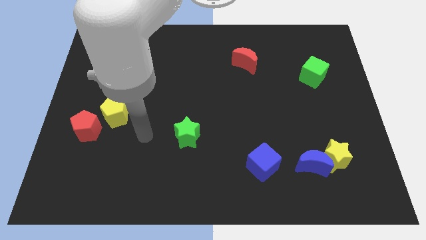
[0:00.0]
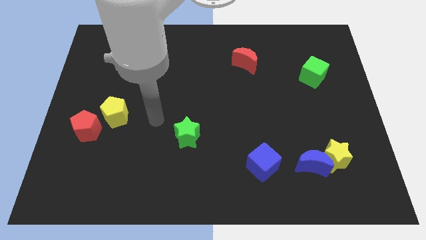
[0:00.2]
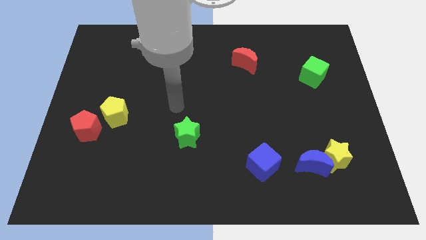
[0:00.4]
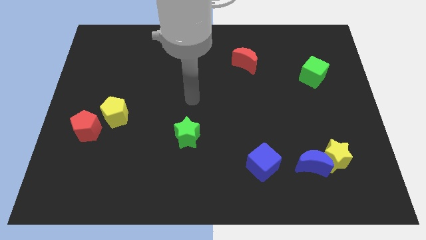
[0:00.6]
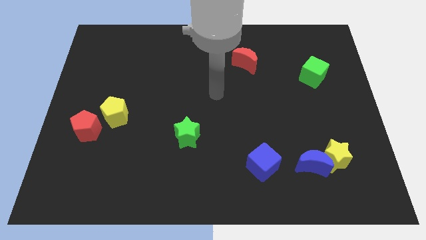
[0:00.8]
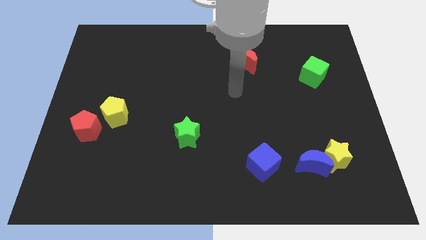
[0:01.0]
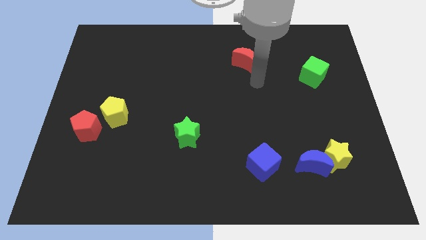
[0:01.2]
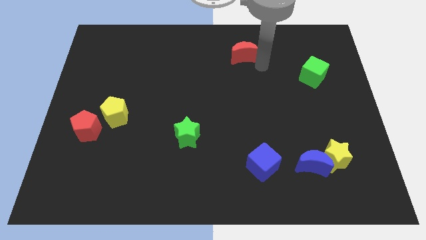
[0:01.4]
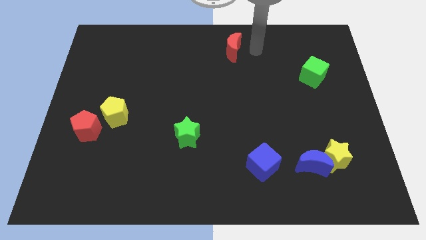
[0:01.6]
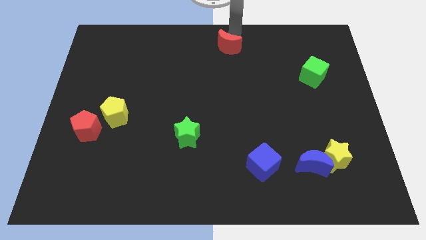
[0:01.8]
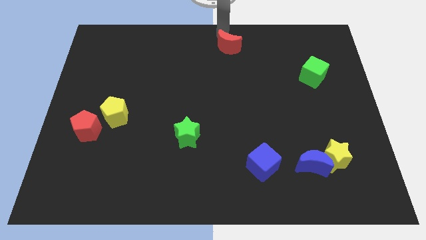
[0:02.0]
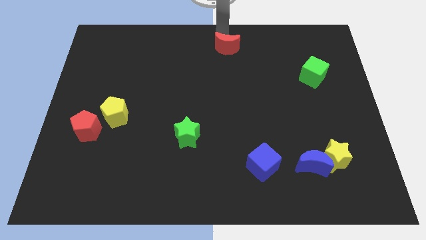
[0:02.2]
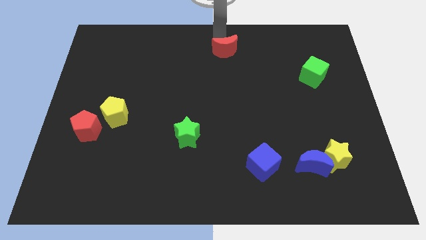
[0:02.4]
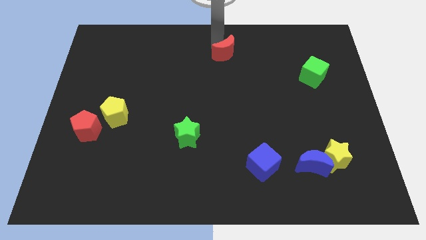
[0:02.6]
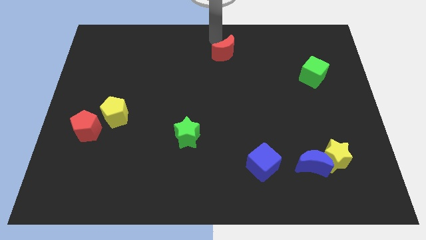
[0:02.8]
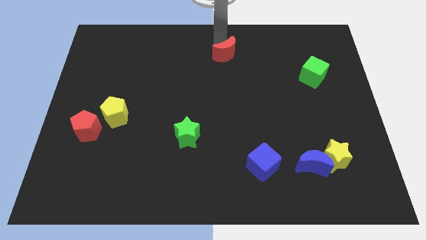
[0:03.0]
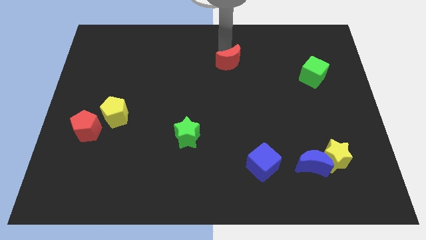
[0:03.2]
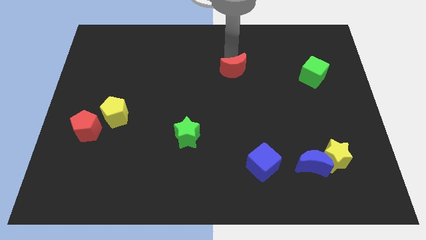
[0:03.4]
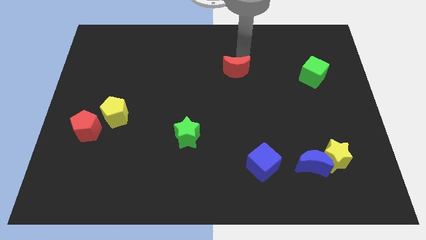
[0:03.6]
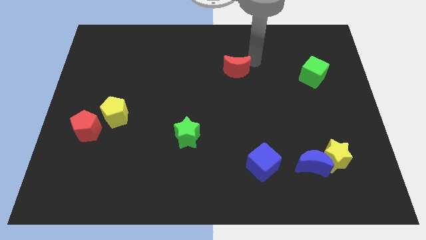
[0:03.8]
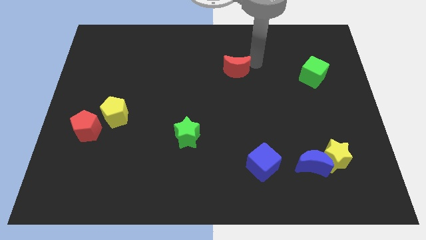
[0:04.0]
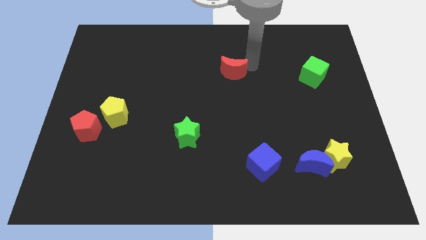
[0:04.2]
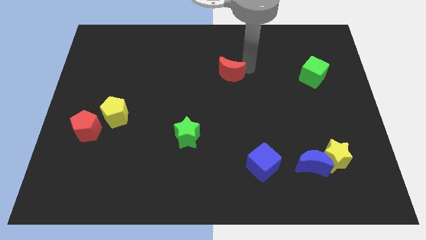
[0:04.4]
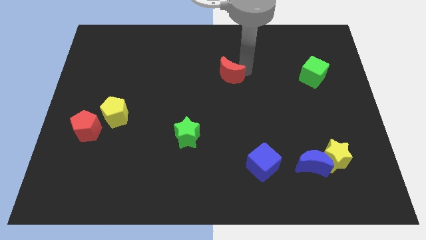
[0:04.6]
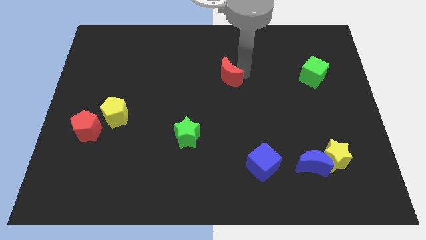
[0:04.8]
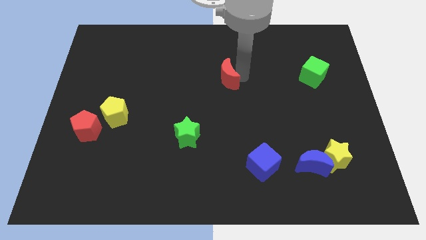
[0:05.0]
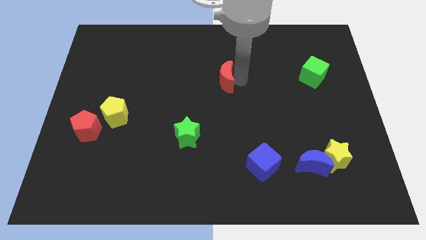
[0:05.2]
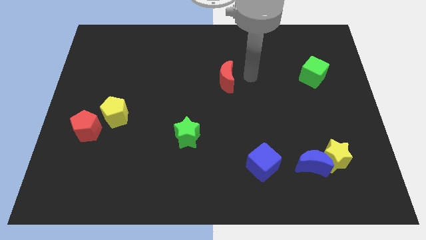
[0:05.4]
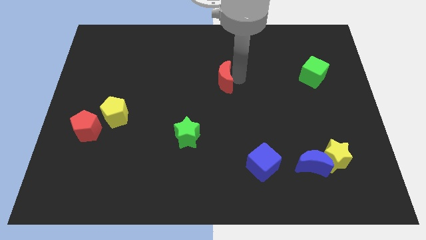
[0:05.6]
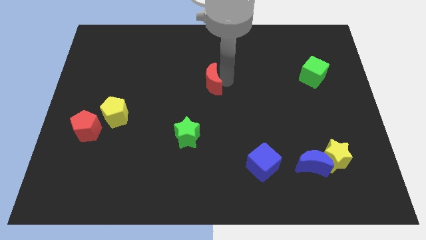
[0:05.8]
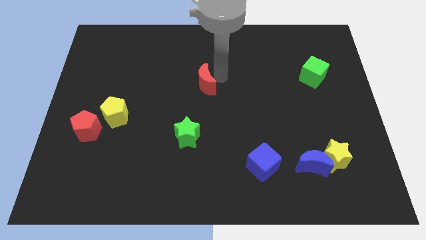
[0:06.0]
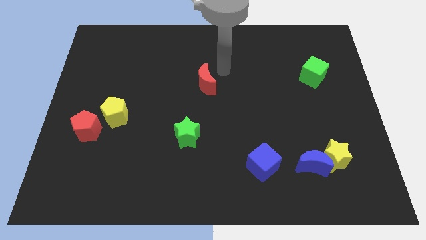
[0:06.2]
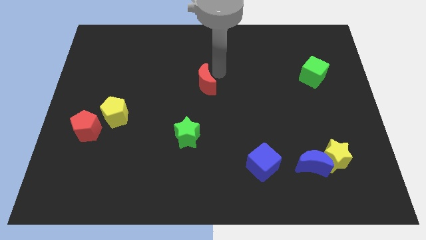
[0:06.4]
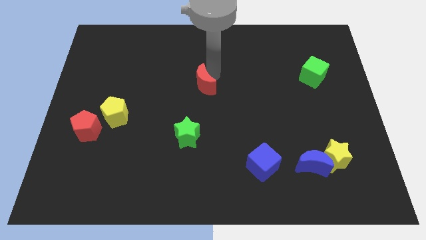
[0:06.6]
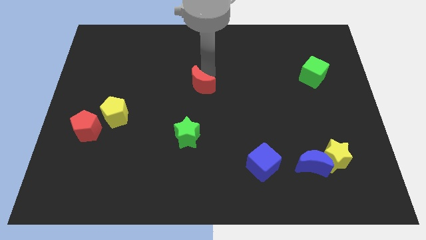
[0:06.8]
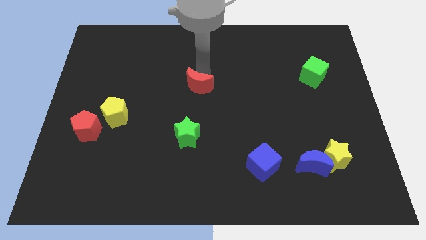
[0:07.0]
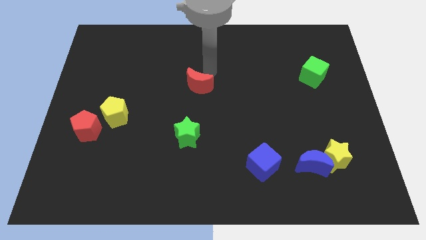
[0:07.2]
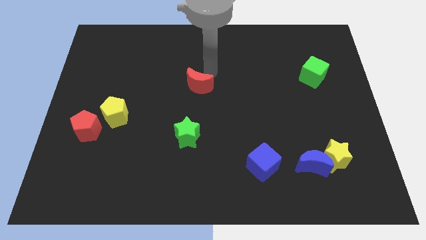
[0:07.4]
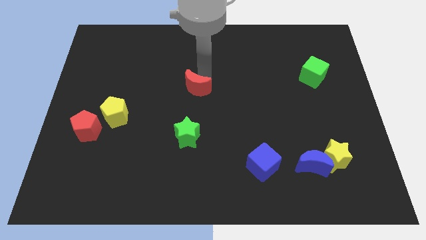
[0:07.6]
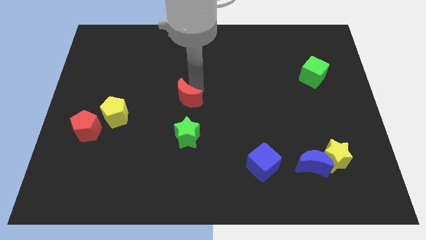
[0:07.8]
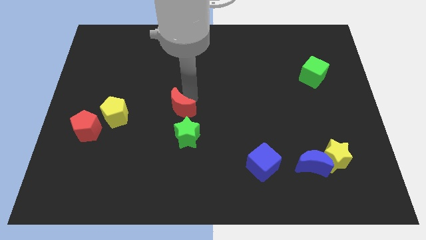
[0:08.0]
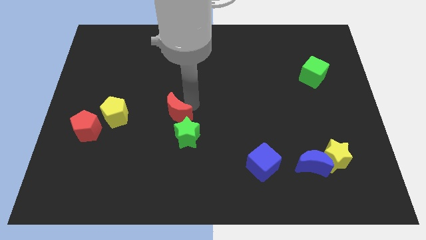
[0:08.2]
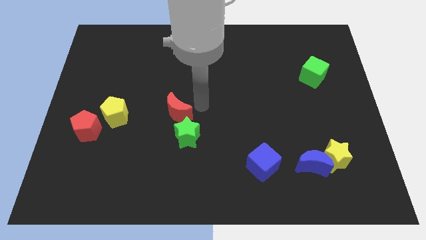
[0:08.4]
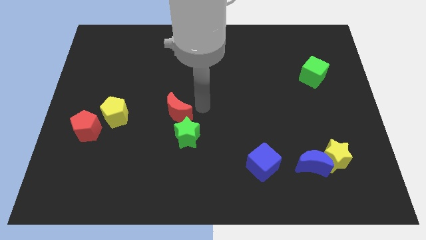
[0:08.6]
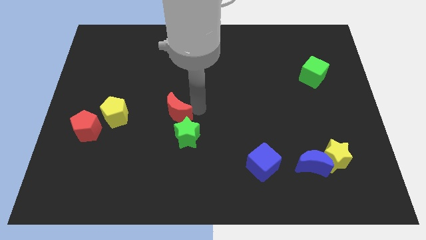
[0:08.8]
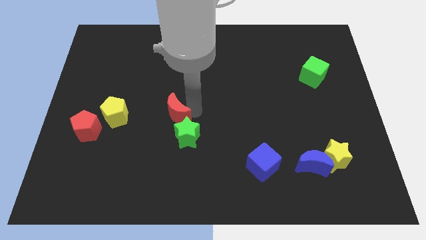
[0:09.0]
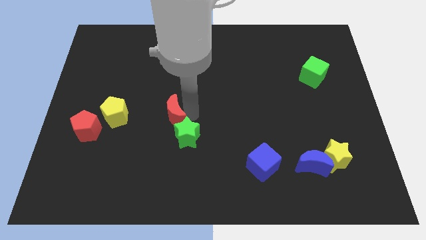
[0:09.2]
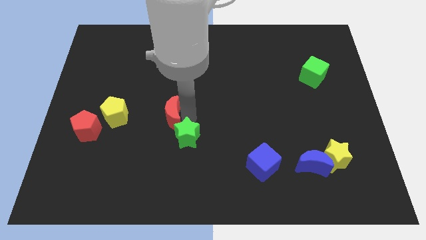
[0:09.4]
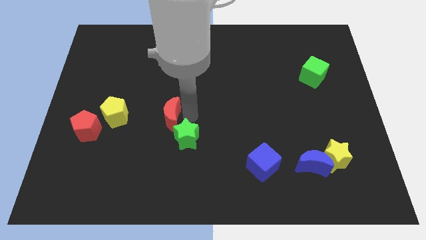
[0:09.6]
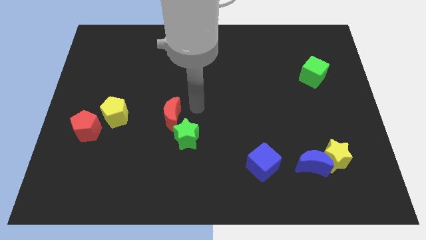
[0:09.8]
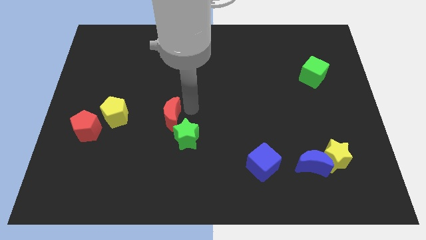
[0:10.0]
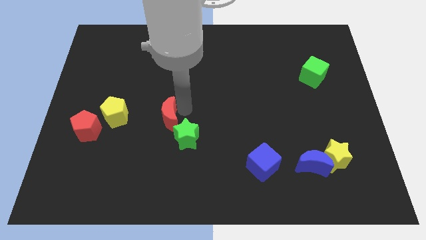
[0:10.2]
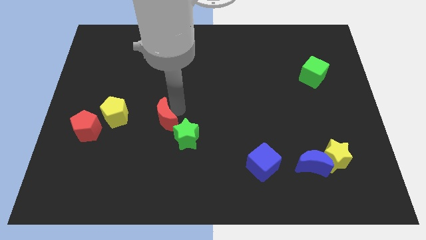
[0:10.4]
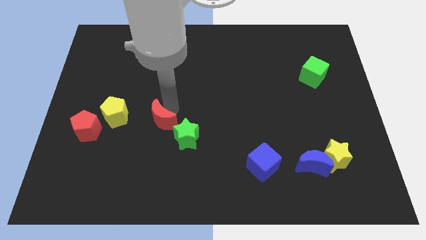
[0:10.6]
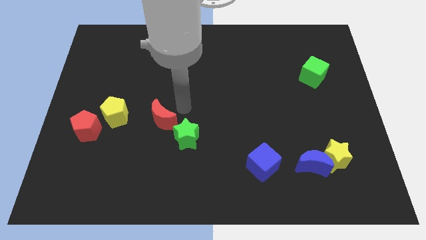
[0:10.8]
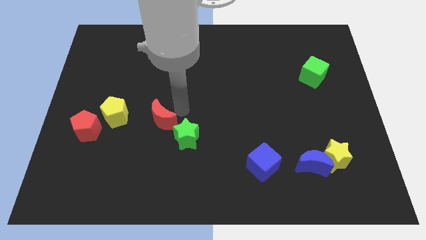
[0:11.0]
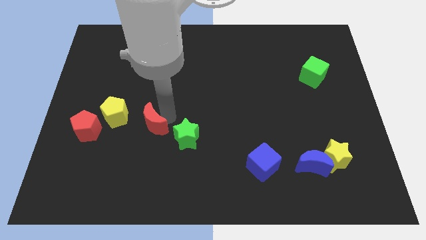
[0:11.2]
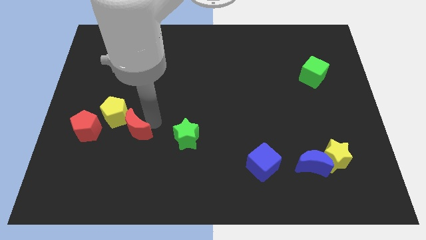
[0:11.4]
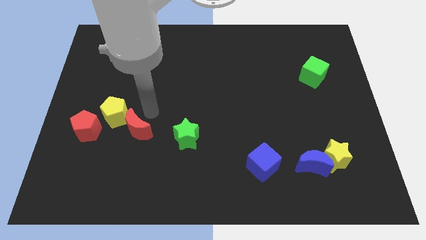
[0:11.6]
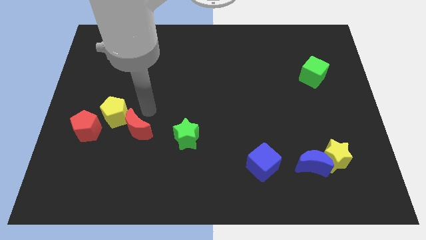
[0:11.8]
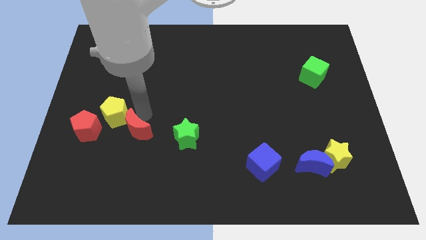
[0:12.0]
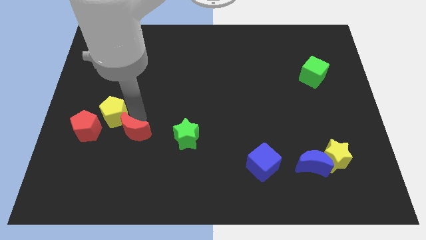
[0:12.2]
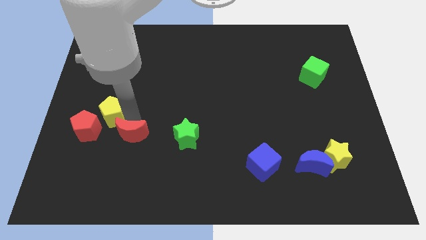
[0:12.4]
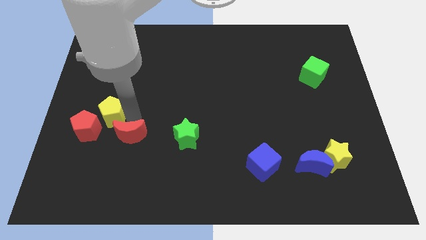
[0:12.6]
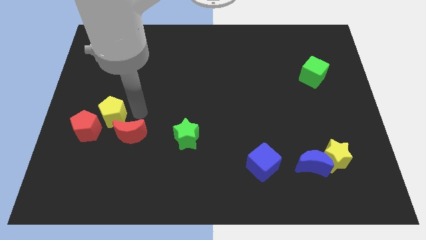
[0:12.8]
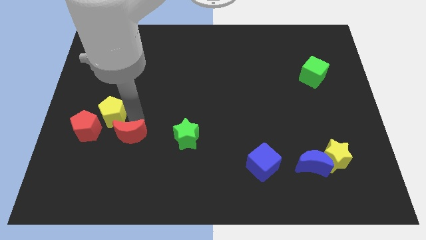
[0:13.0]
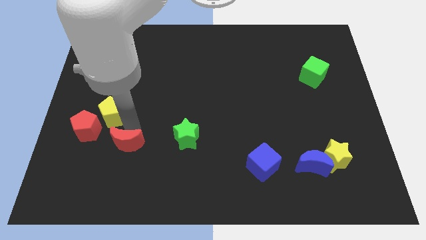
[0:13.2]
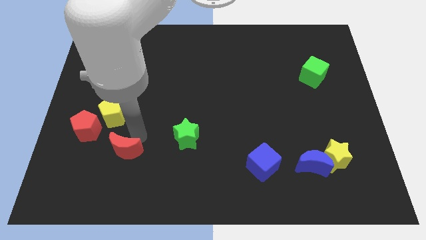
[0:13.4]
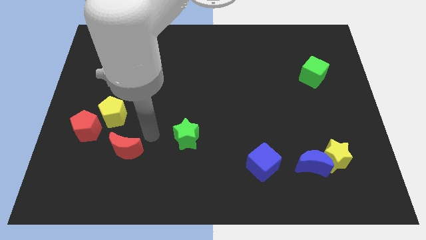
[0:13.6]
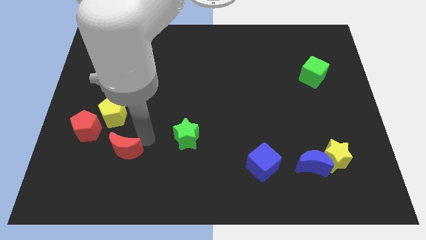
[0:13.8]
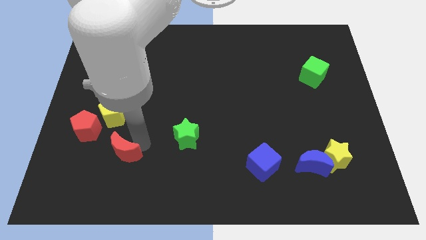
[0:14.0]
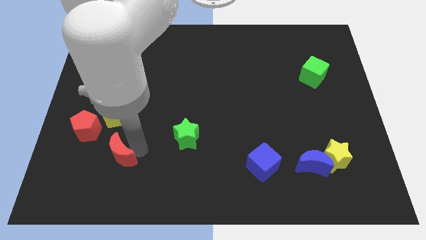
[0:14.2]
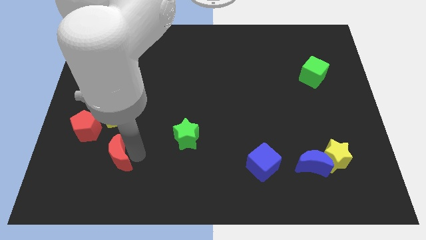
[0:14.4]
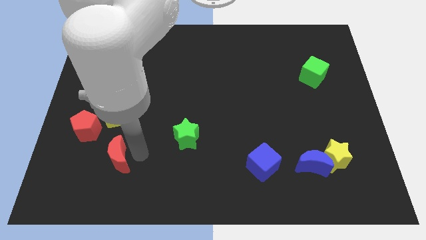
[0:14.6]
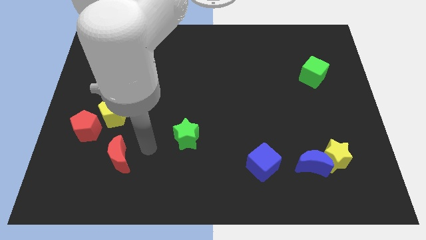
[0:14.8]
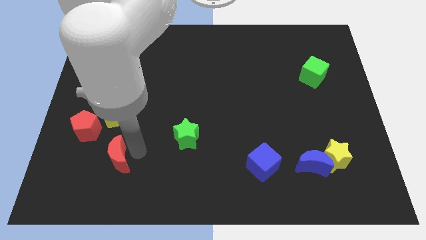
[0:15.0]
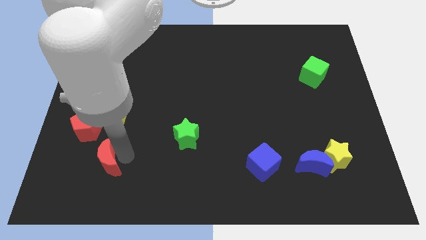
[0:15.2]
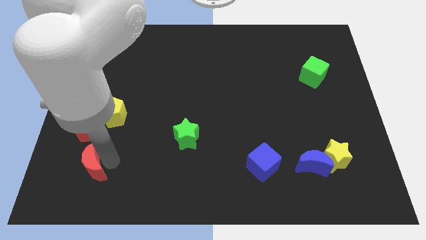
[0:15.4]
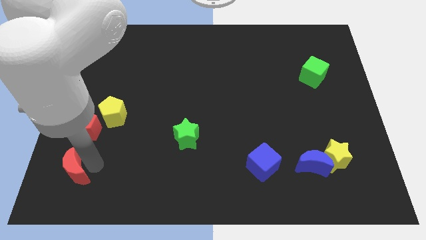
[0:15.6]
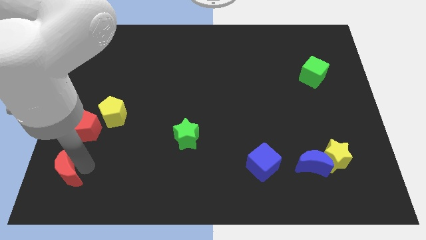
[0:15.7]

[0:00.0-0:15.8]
push the red moon to the bottom left of the board
